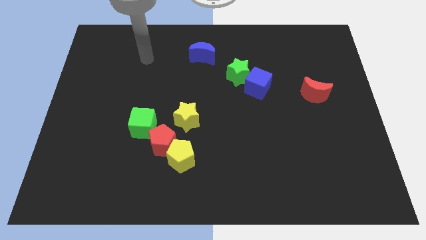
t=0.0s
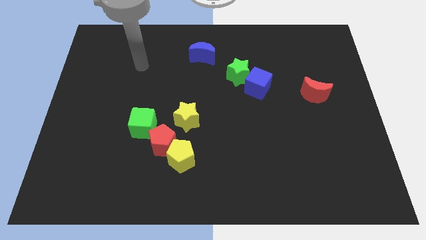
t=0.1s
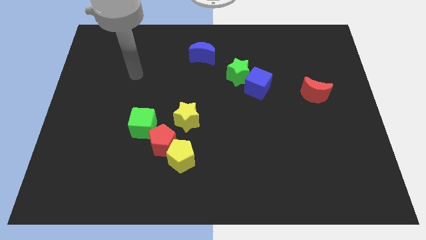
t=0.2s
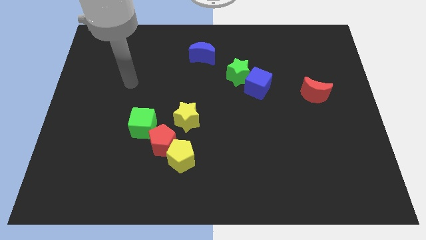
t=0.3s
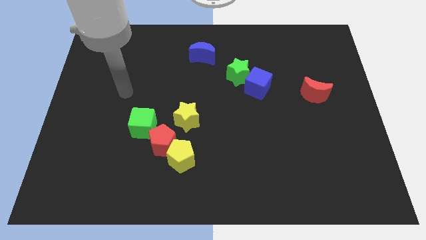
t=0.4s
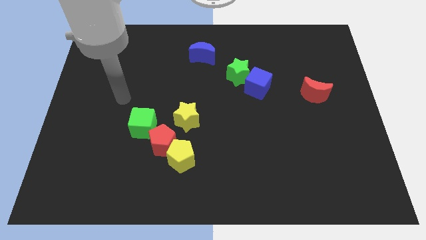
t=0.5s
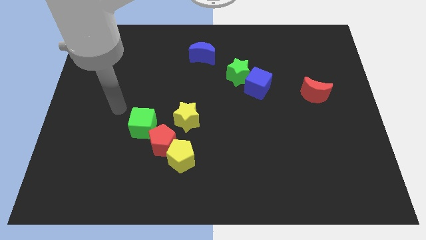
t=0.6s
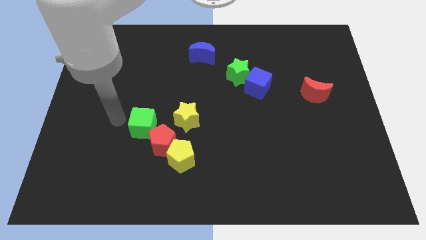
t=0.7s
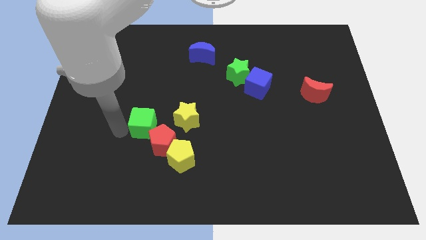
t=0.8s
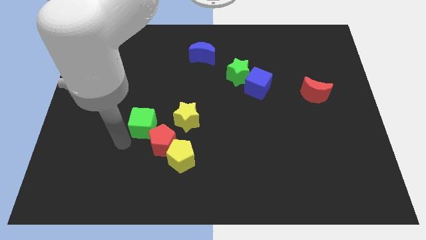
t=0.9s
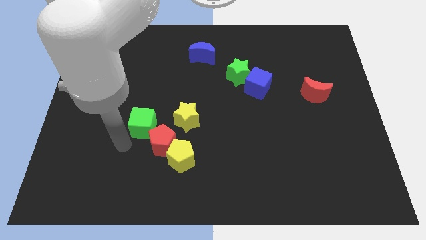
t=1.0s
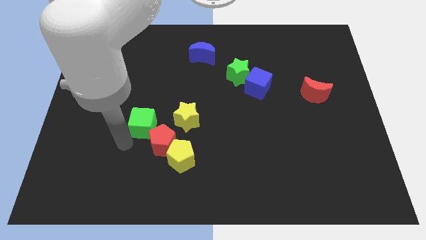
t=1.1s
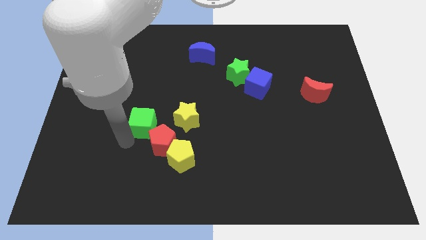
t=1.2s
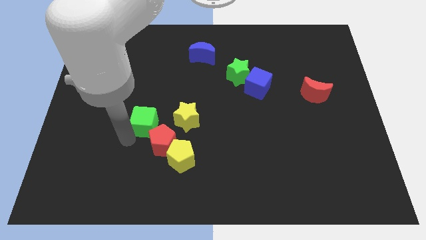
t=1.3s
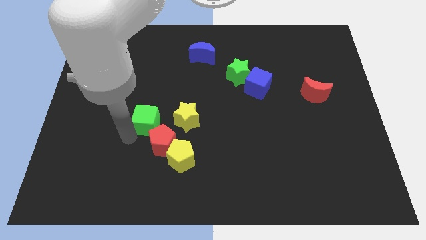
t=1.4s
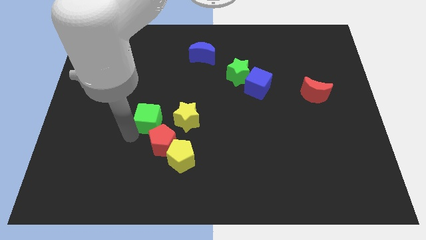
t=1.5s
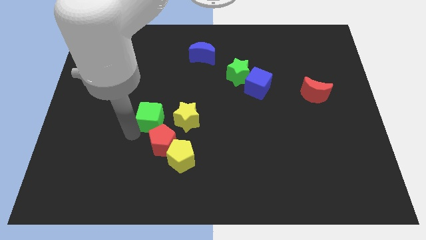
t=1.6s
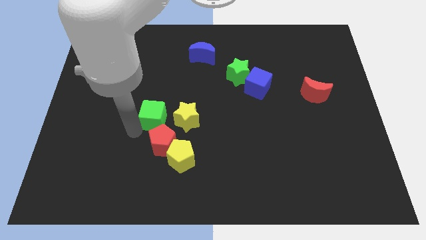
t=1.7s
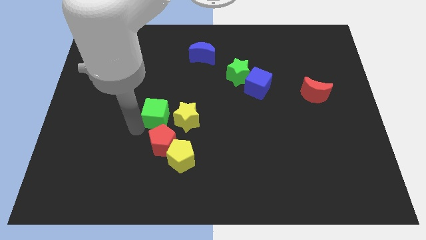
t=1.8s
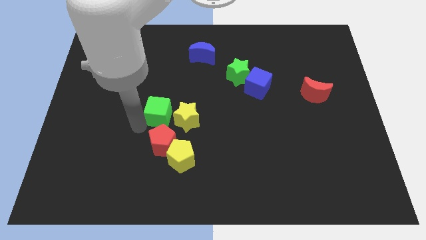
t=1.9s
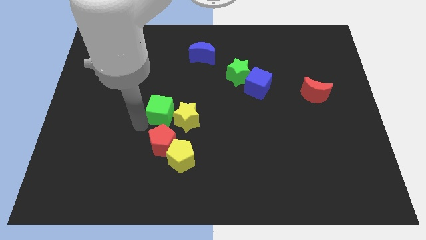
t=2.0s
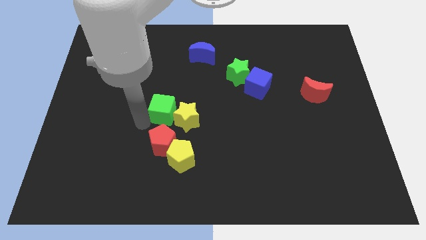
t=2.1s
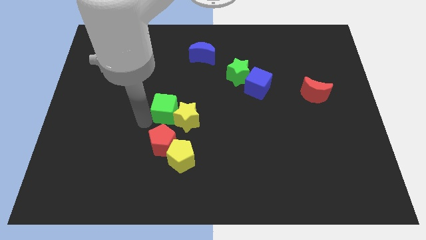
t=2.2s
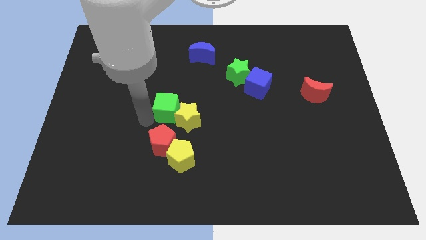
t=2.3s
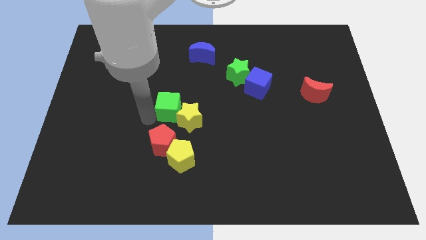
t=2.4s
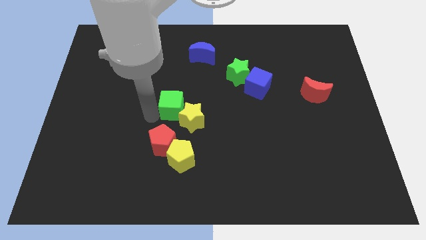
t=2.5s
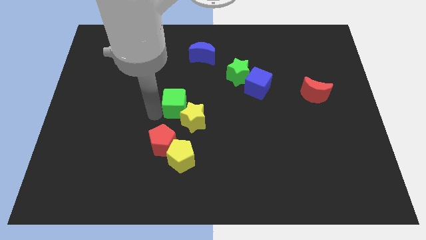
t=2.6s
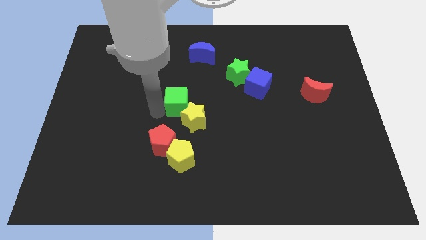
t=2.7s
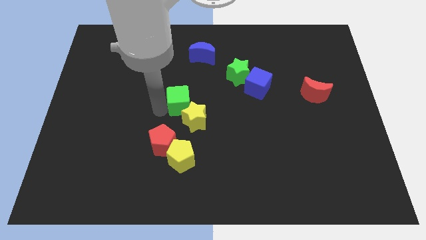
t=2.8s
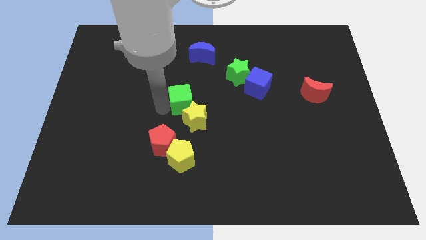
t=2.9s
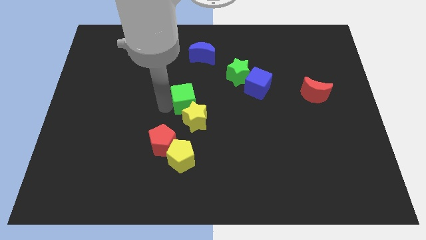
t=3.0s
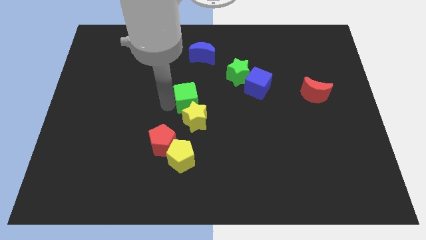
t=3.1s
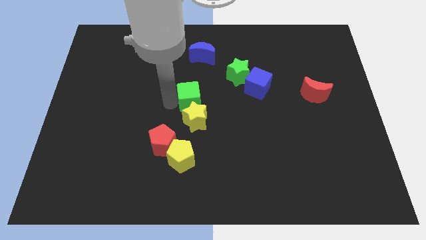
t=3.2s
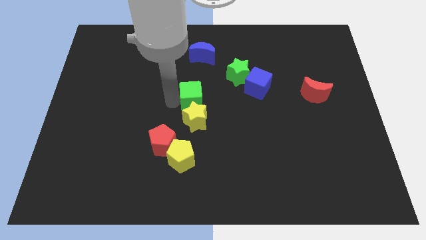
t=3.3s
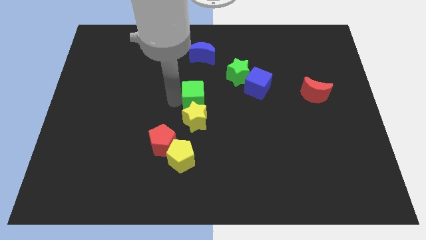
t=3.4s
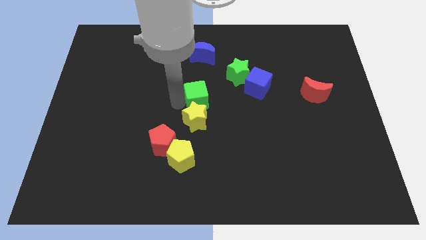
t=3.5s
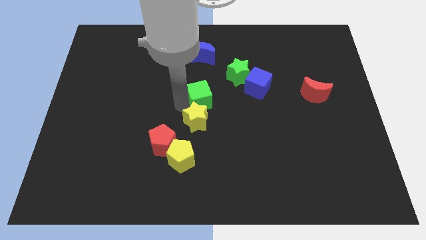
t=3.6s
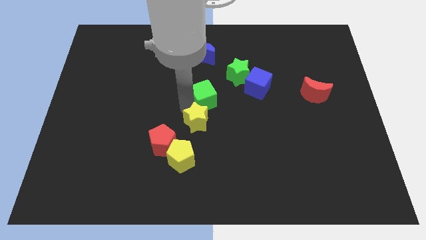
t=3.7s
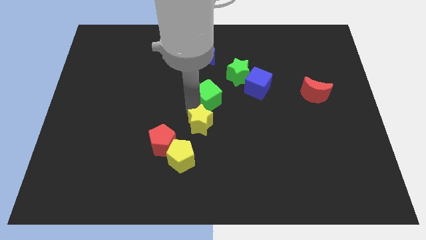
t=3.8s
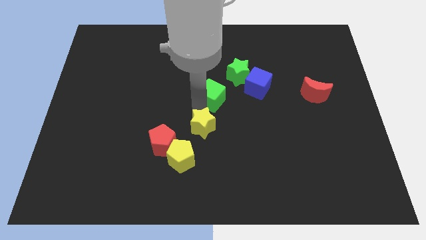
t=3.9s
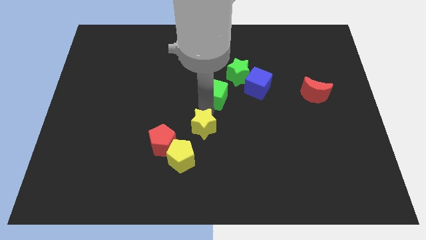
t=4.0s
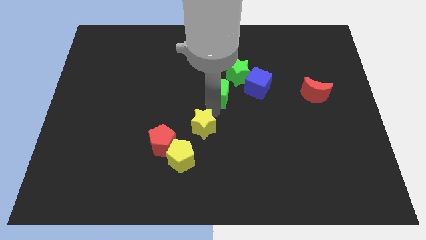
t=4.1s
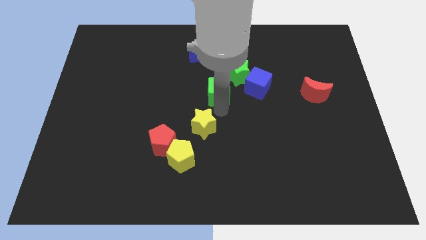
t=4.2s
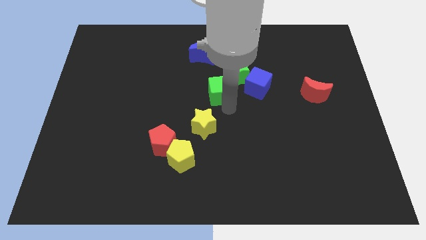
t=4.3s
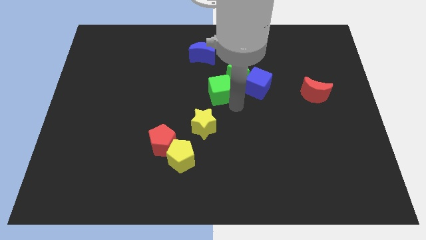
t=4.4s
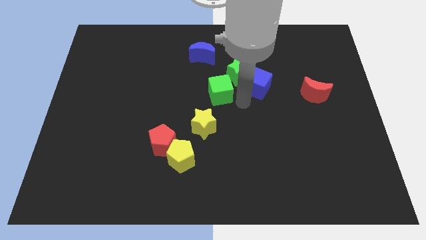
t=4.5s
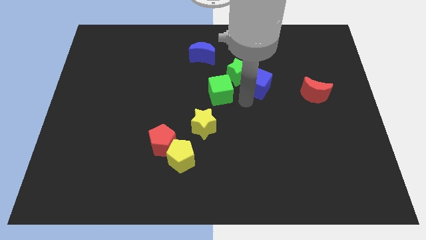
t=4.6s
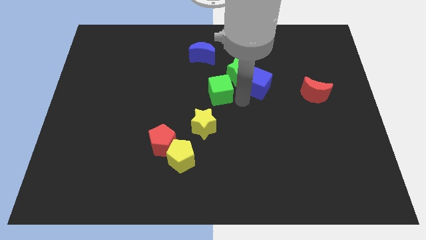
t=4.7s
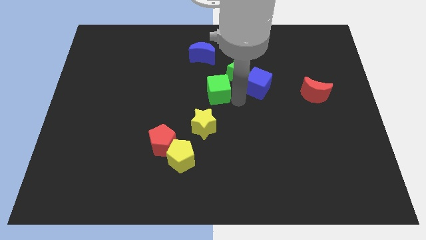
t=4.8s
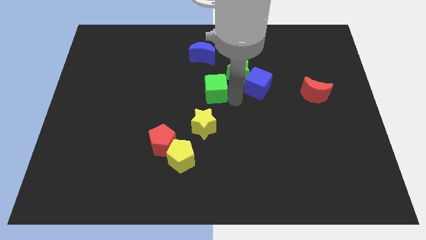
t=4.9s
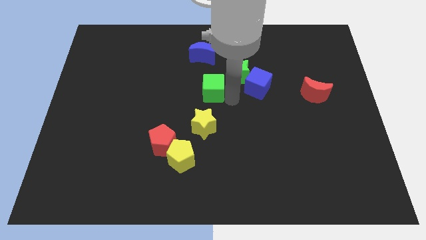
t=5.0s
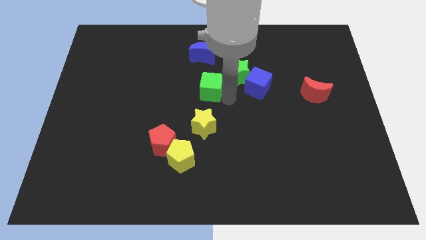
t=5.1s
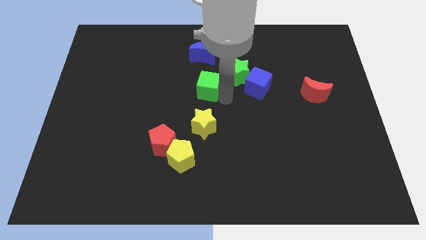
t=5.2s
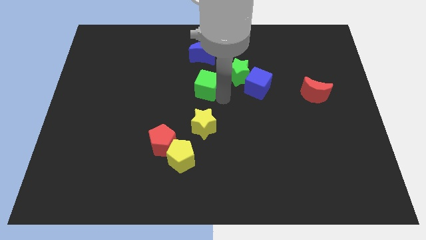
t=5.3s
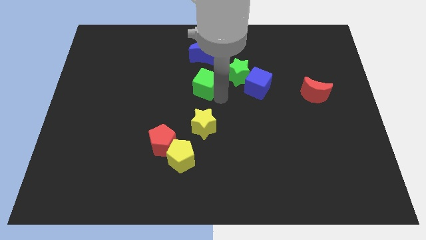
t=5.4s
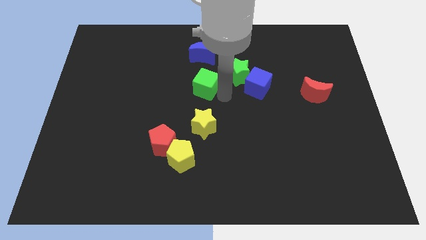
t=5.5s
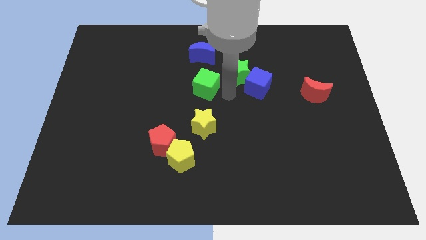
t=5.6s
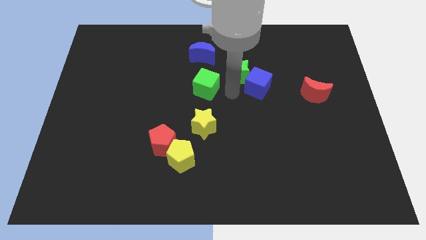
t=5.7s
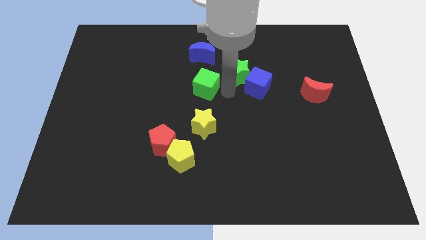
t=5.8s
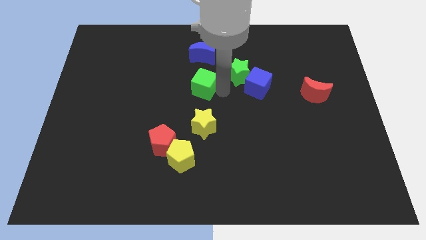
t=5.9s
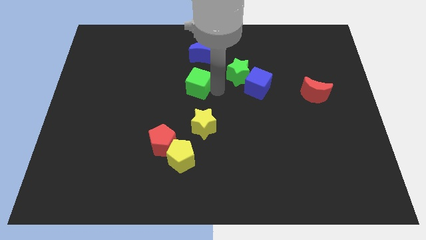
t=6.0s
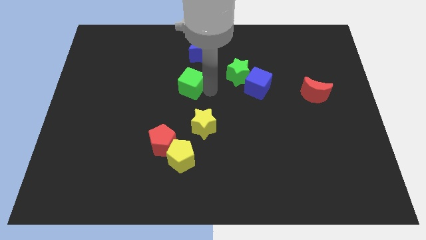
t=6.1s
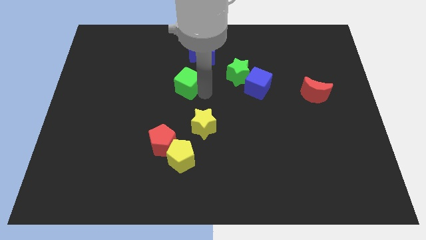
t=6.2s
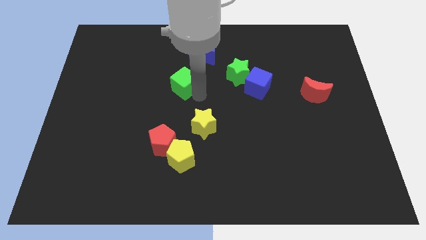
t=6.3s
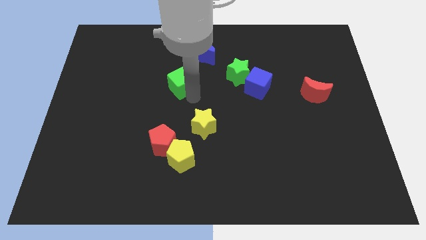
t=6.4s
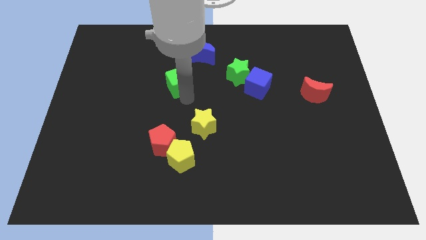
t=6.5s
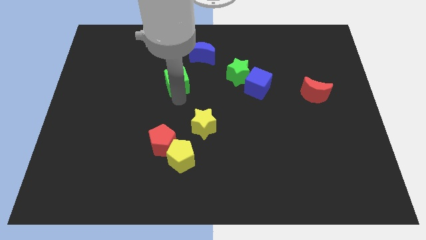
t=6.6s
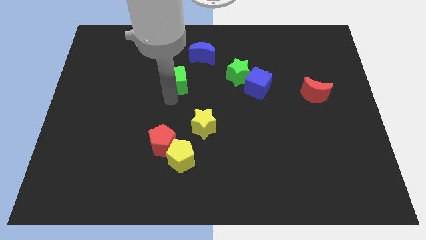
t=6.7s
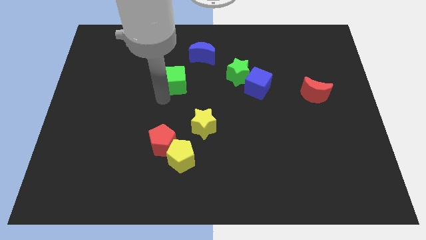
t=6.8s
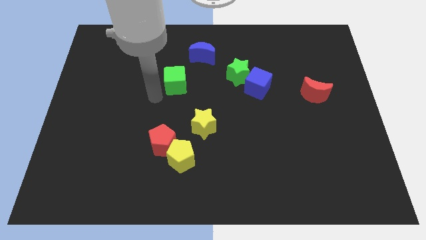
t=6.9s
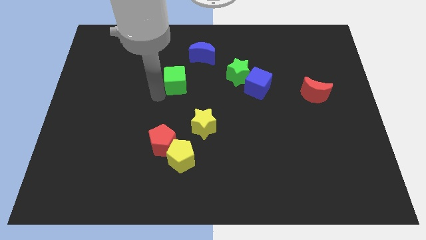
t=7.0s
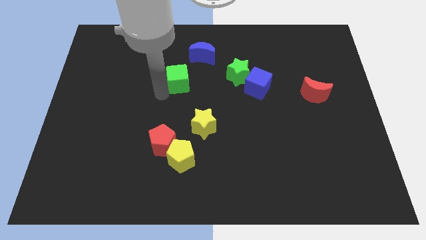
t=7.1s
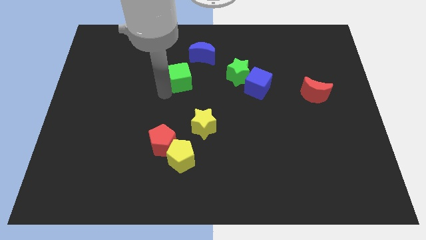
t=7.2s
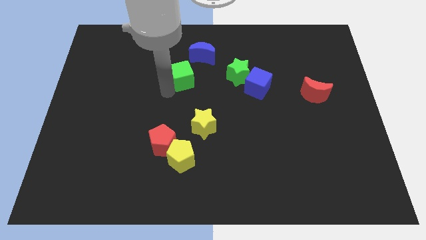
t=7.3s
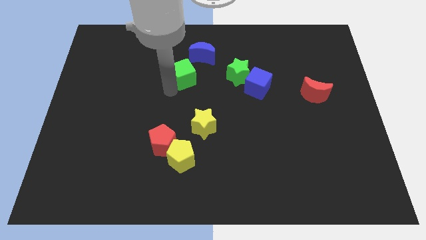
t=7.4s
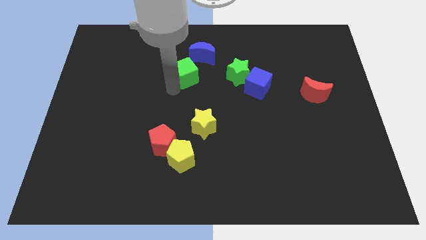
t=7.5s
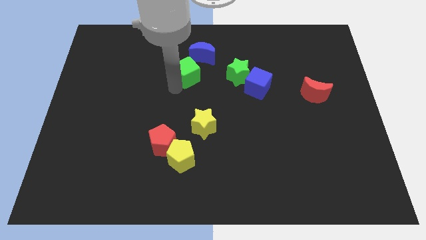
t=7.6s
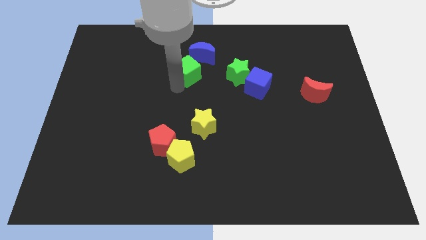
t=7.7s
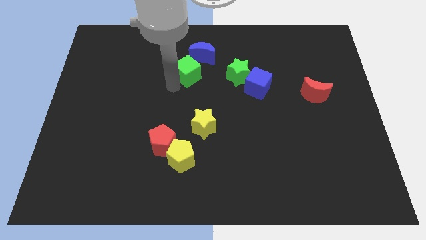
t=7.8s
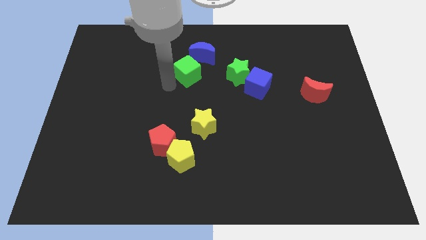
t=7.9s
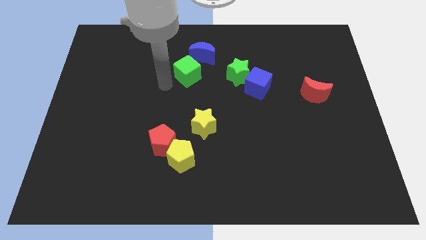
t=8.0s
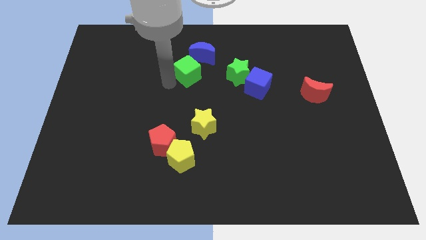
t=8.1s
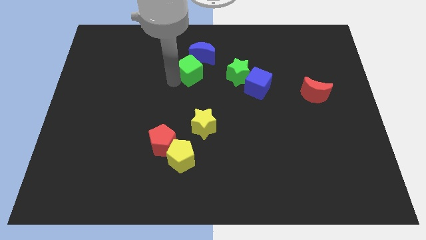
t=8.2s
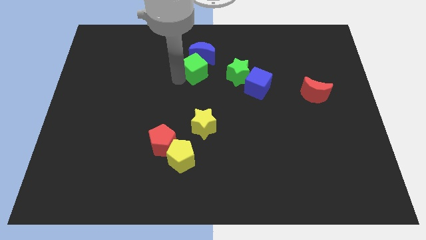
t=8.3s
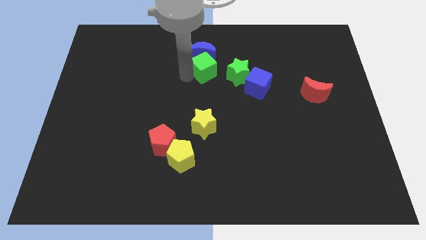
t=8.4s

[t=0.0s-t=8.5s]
slide the green cube upwards and to the right

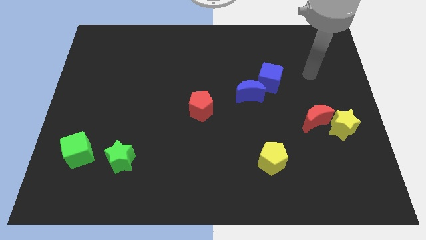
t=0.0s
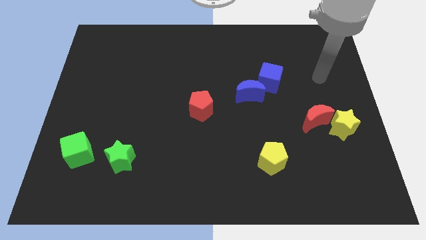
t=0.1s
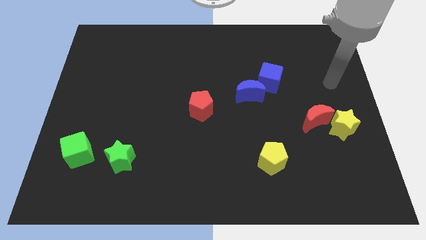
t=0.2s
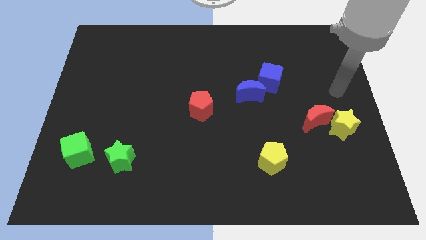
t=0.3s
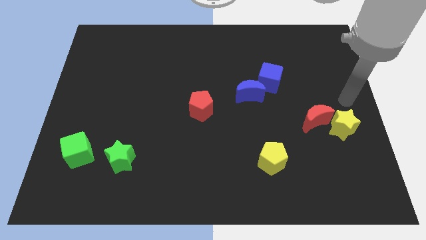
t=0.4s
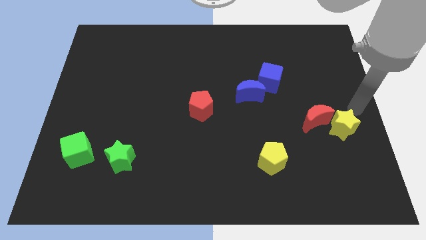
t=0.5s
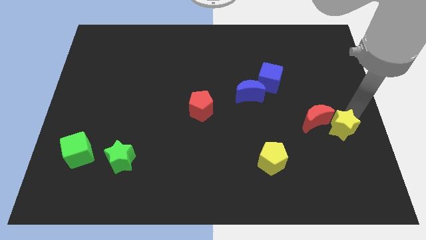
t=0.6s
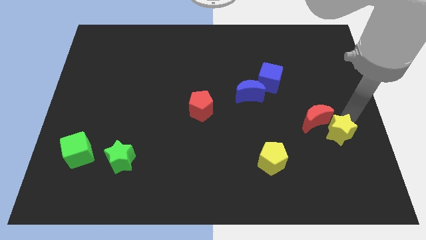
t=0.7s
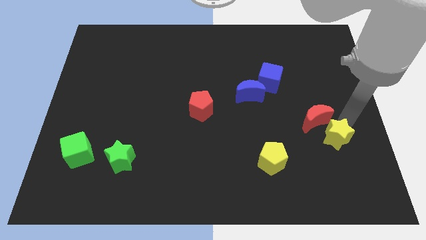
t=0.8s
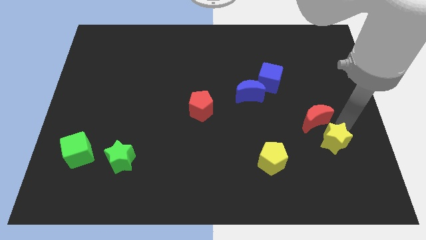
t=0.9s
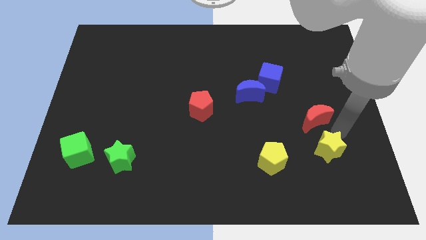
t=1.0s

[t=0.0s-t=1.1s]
slightly slide the yellow star down and left diagonally
